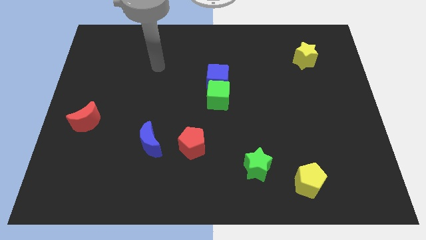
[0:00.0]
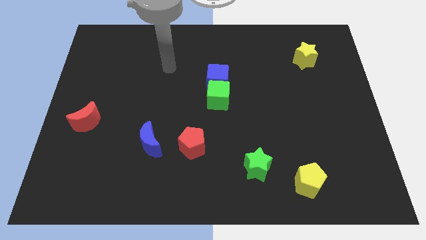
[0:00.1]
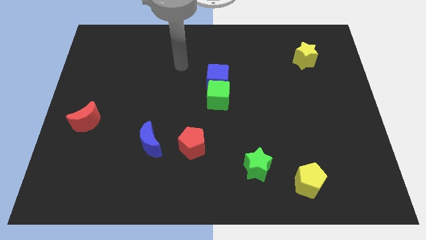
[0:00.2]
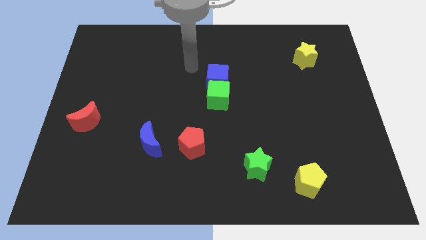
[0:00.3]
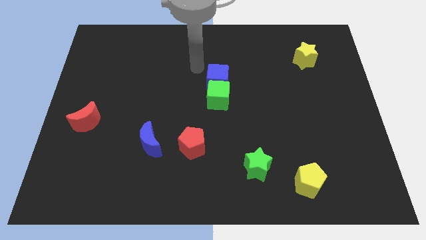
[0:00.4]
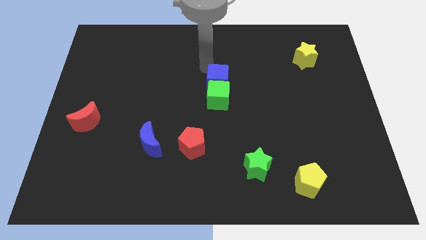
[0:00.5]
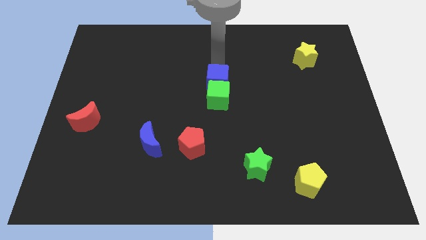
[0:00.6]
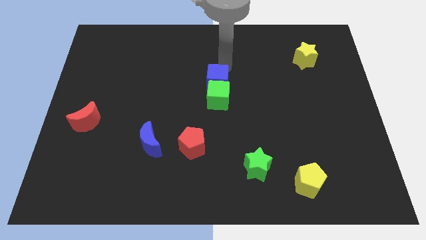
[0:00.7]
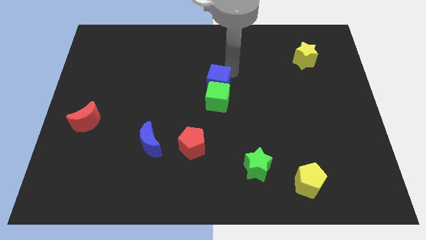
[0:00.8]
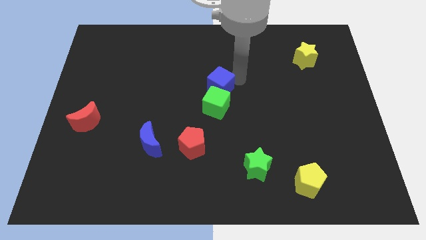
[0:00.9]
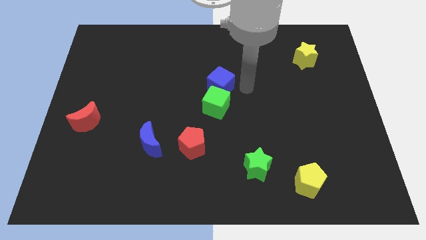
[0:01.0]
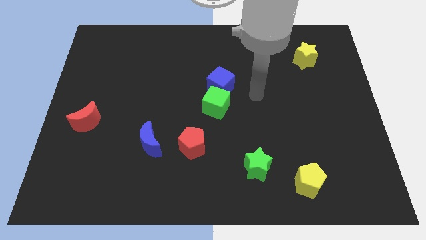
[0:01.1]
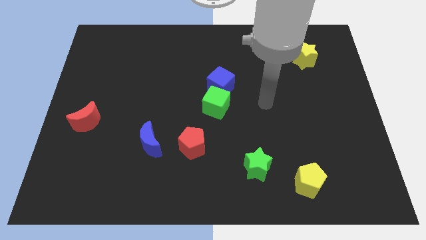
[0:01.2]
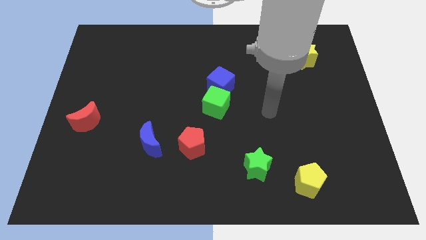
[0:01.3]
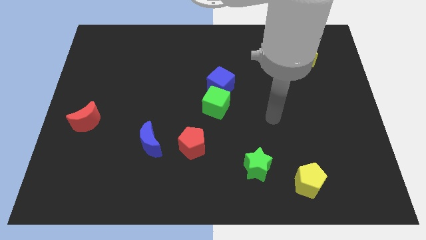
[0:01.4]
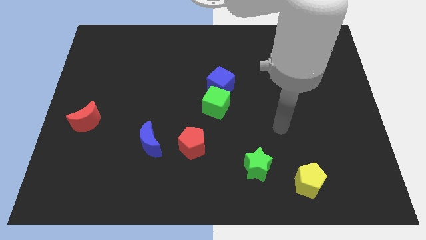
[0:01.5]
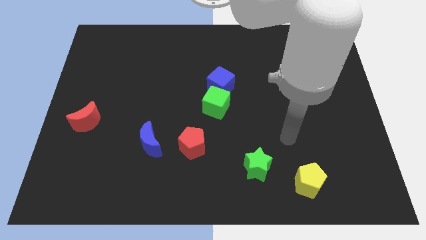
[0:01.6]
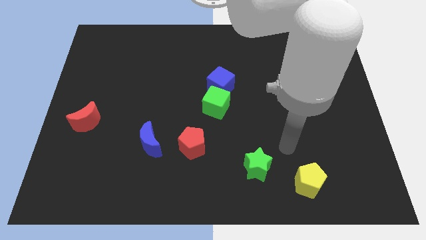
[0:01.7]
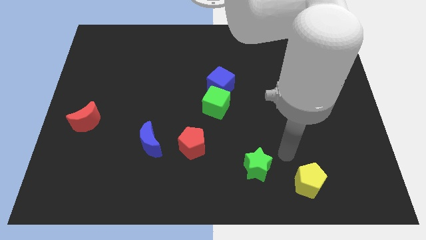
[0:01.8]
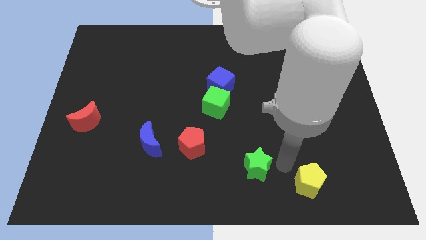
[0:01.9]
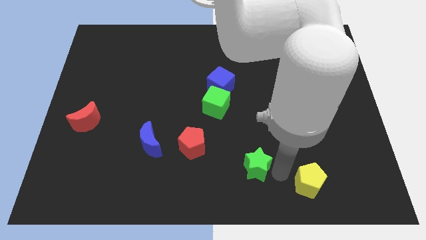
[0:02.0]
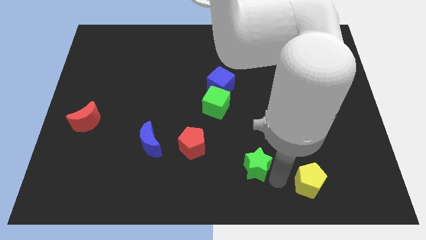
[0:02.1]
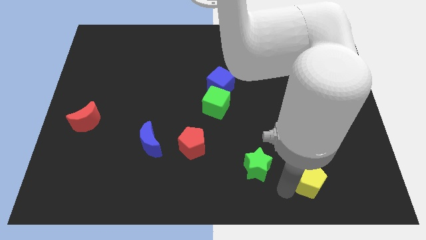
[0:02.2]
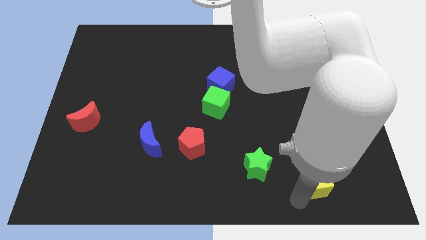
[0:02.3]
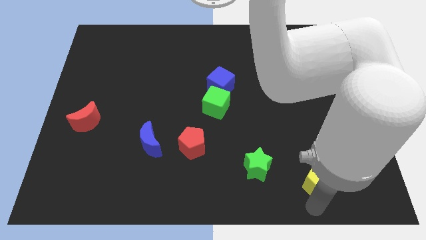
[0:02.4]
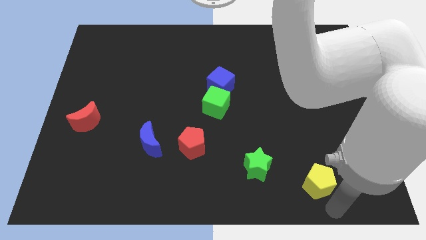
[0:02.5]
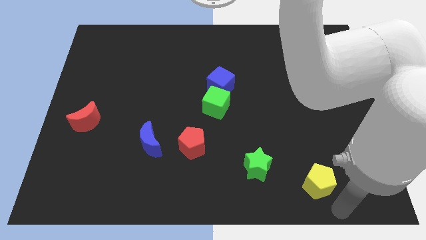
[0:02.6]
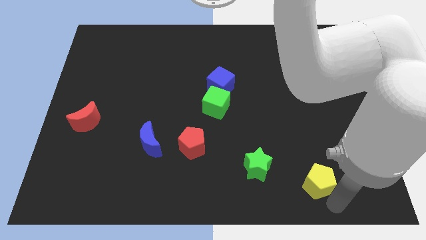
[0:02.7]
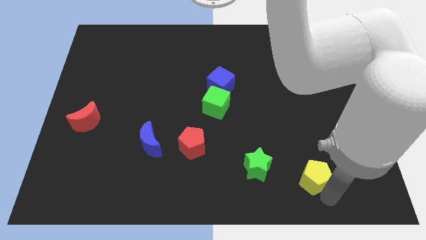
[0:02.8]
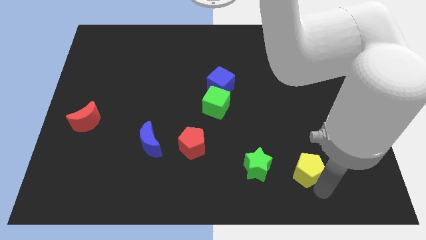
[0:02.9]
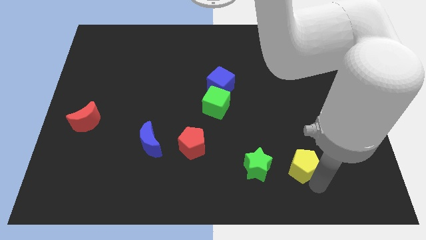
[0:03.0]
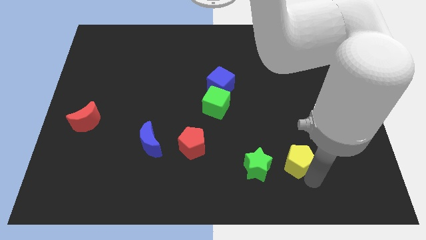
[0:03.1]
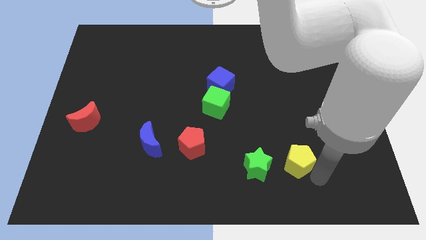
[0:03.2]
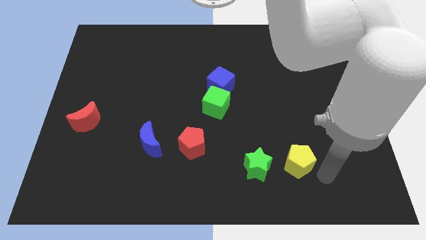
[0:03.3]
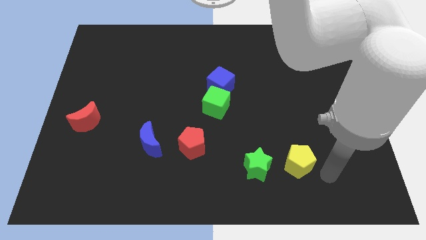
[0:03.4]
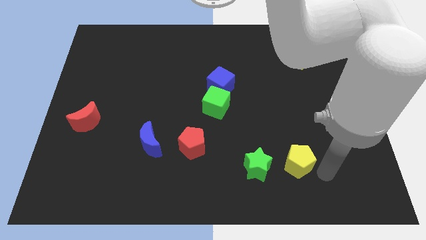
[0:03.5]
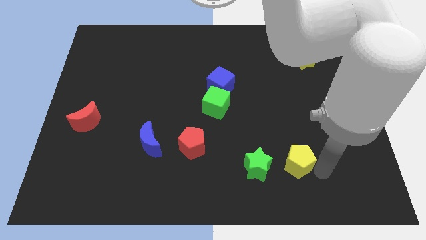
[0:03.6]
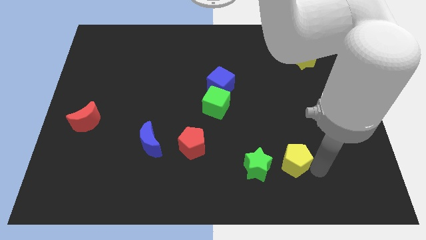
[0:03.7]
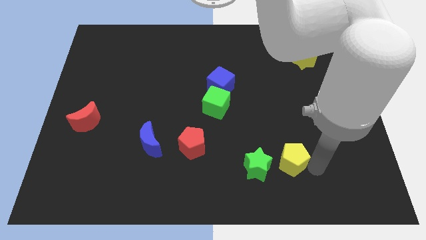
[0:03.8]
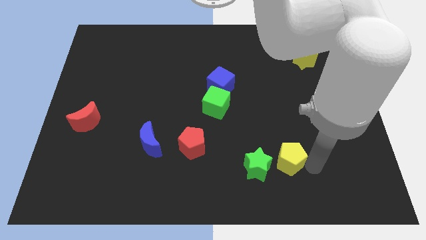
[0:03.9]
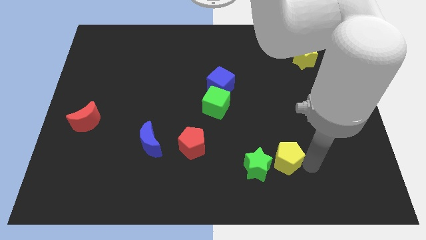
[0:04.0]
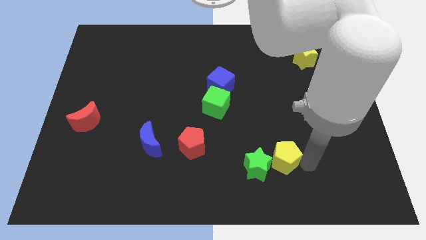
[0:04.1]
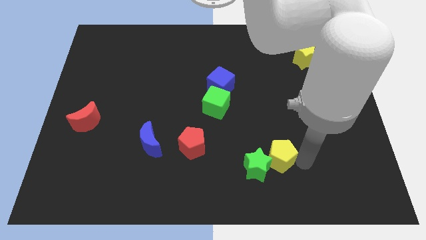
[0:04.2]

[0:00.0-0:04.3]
slightly move the yellow pentagon up and left diagonally

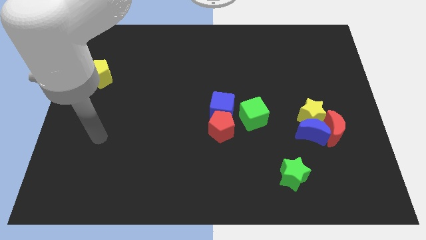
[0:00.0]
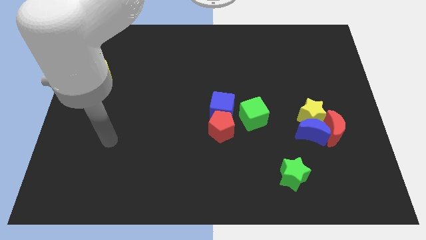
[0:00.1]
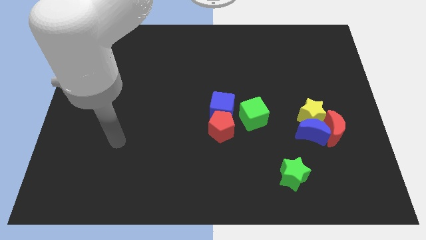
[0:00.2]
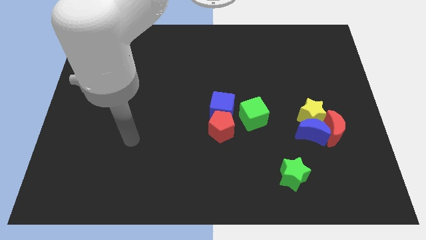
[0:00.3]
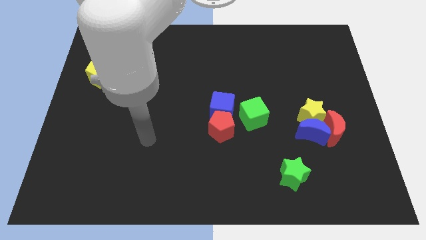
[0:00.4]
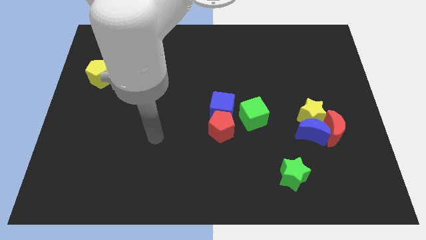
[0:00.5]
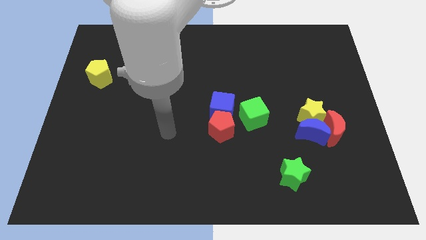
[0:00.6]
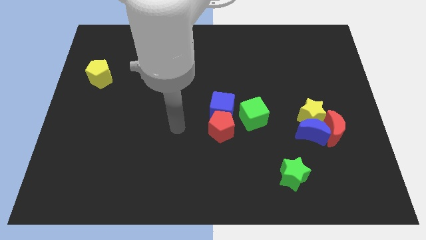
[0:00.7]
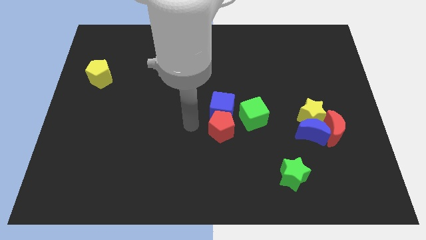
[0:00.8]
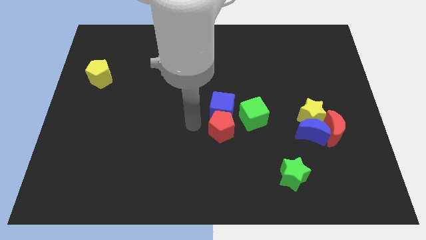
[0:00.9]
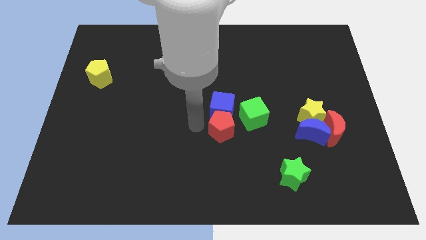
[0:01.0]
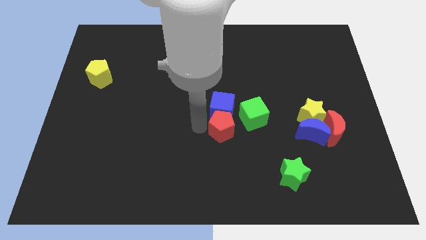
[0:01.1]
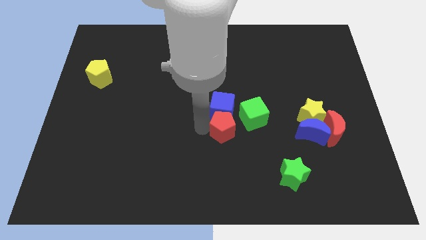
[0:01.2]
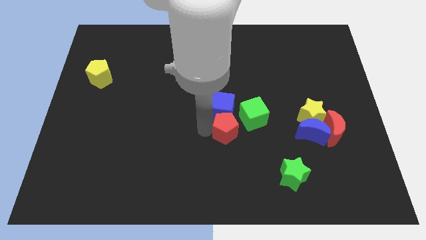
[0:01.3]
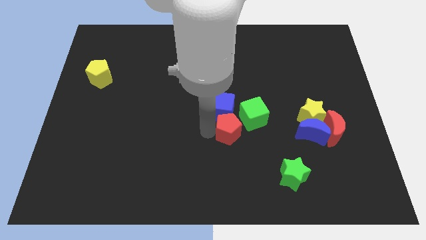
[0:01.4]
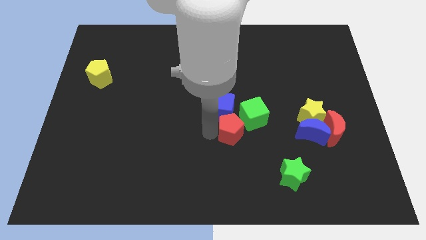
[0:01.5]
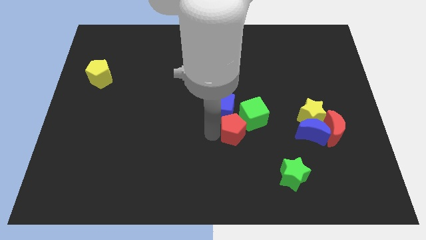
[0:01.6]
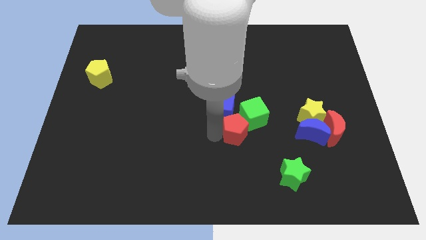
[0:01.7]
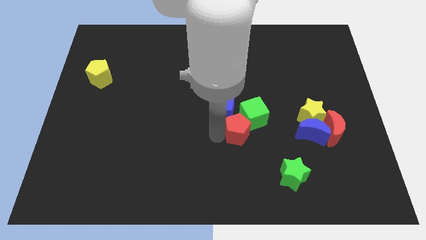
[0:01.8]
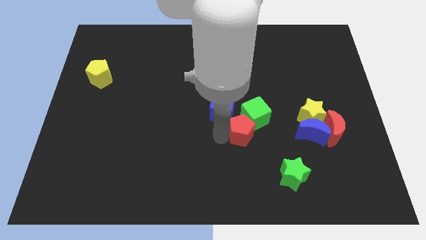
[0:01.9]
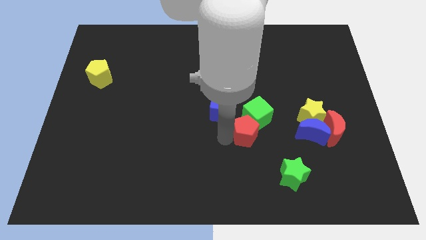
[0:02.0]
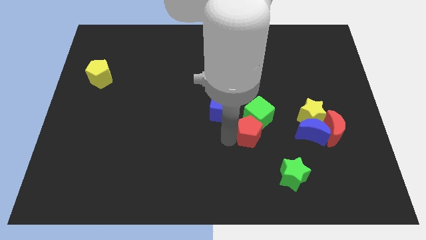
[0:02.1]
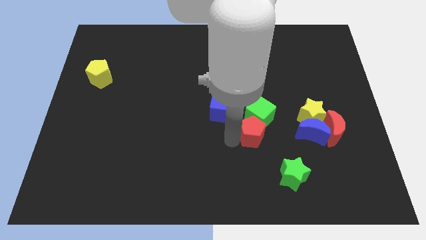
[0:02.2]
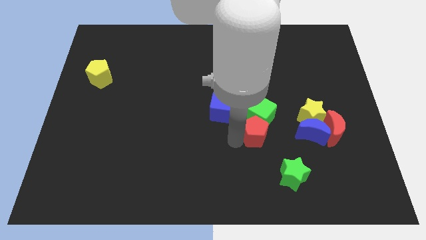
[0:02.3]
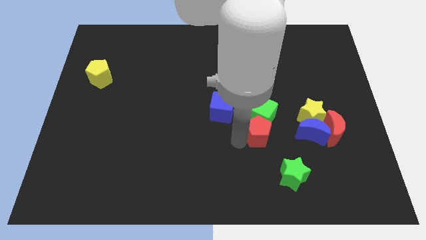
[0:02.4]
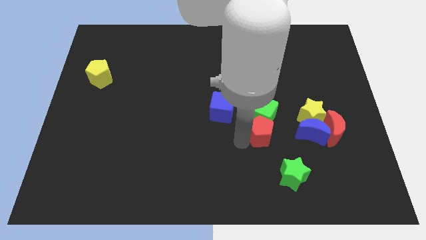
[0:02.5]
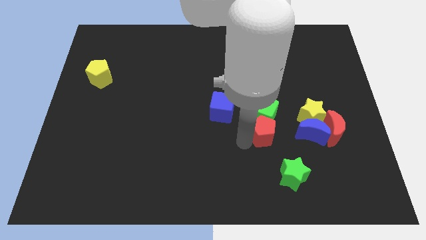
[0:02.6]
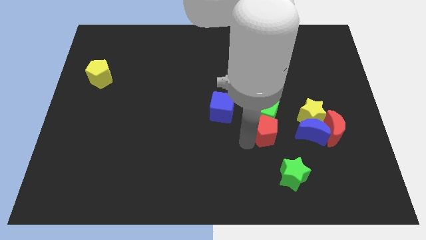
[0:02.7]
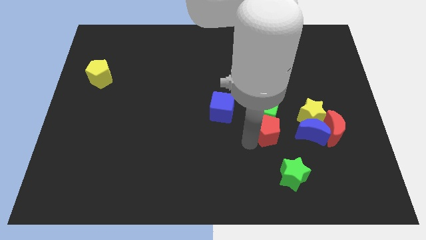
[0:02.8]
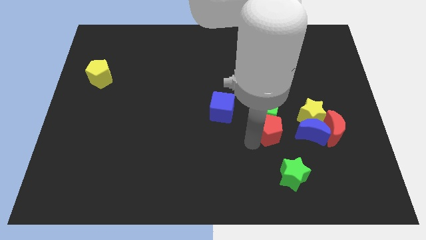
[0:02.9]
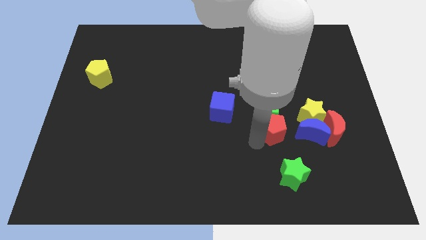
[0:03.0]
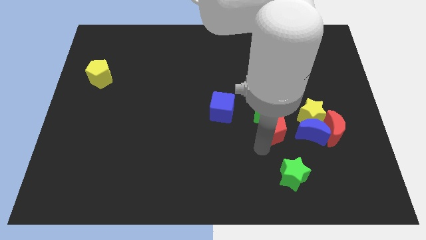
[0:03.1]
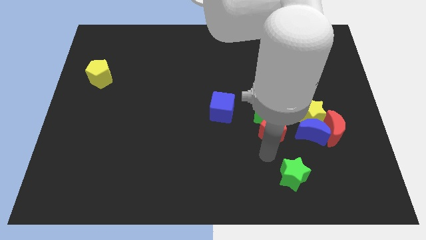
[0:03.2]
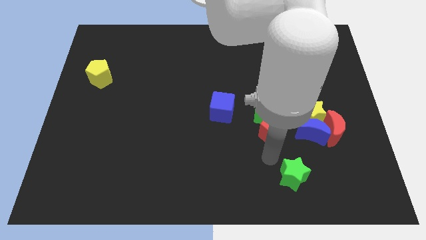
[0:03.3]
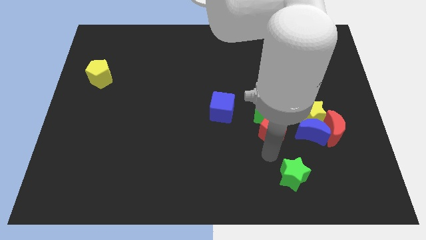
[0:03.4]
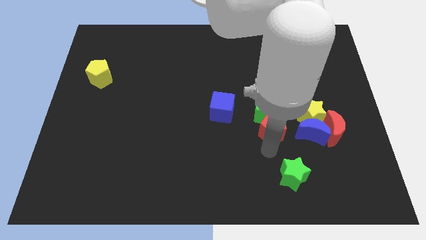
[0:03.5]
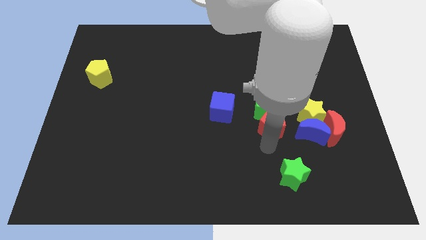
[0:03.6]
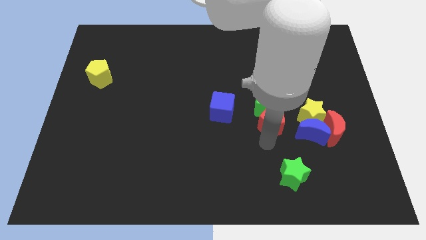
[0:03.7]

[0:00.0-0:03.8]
slightly move the red pentagon up and then to the right

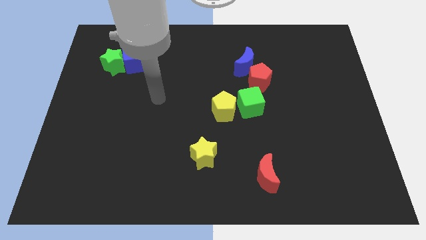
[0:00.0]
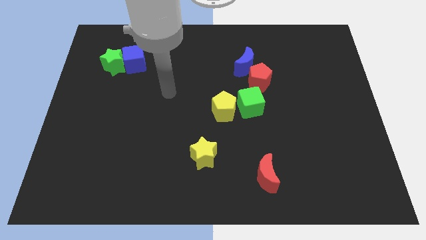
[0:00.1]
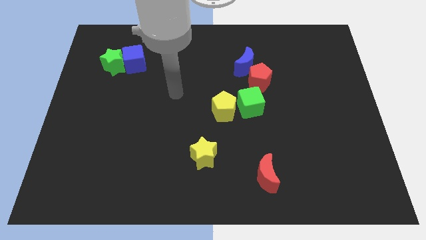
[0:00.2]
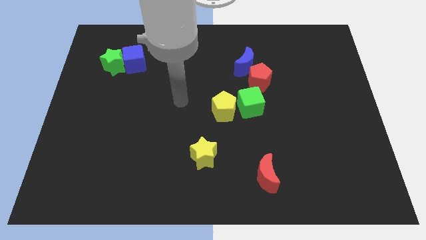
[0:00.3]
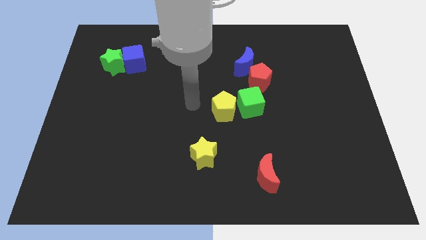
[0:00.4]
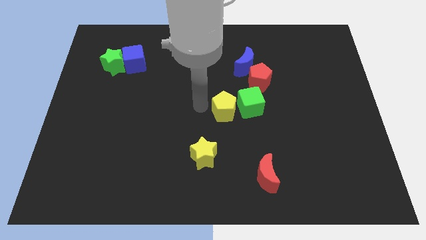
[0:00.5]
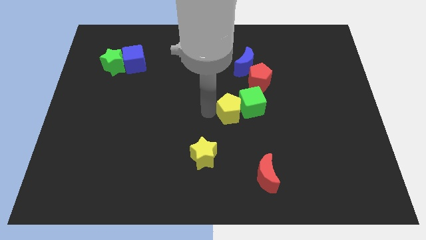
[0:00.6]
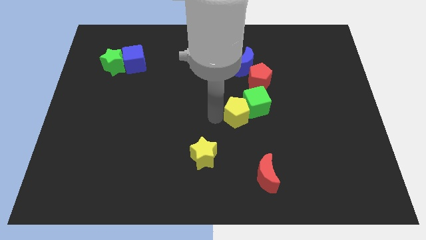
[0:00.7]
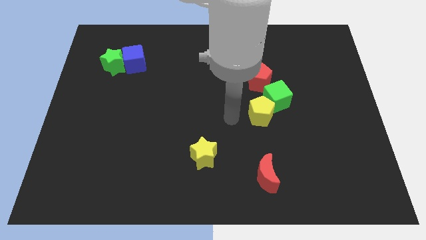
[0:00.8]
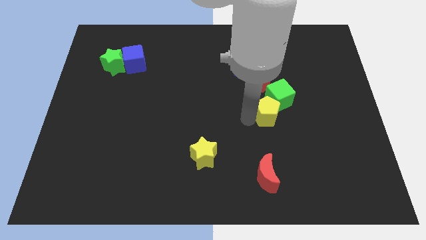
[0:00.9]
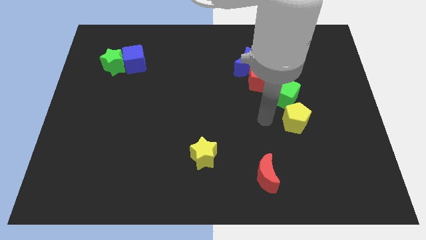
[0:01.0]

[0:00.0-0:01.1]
slide the green cube up and to the right diagonally a little bit
